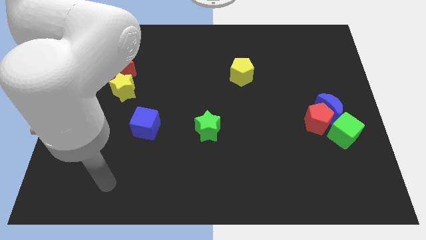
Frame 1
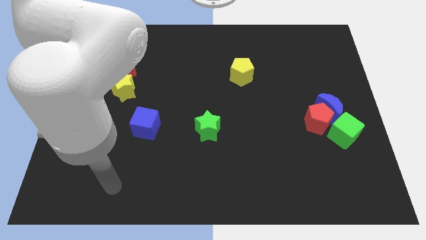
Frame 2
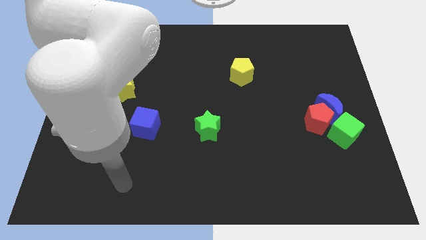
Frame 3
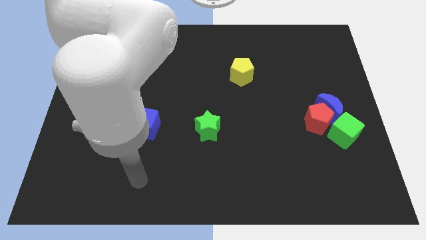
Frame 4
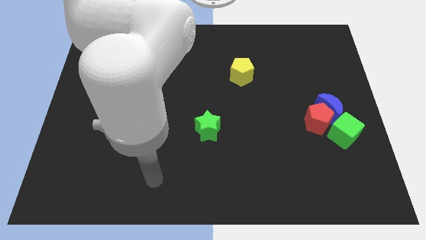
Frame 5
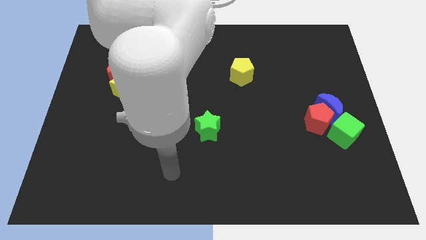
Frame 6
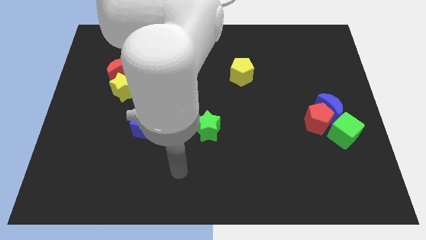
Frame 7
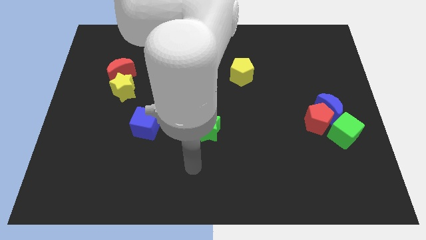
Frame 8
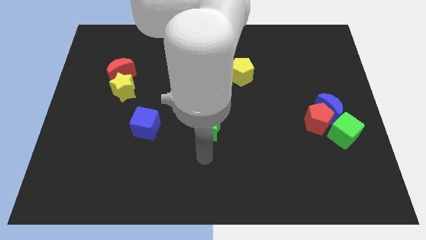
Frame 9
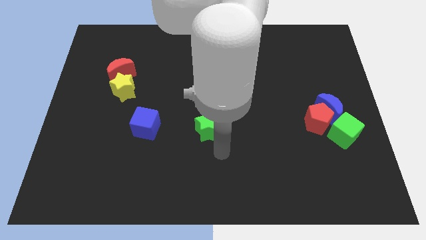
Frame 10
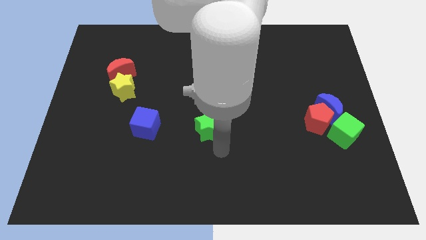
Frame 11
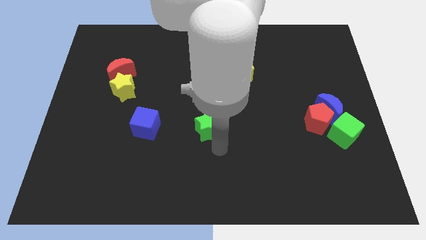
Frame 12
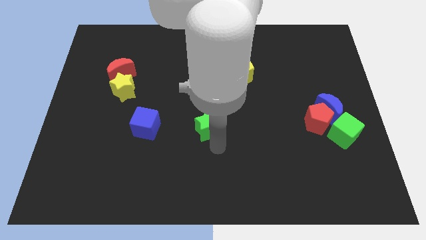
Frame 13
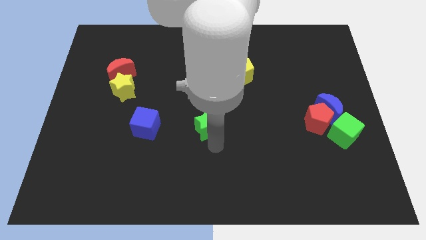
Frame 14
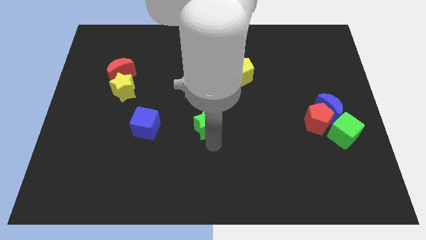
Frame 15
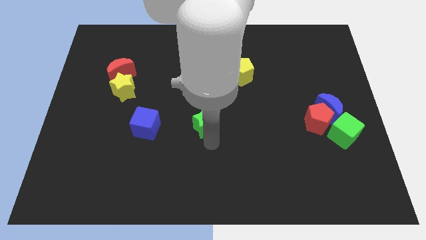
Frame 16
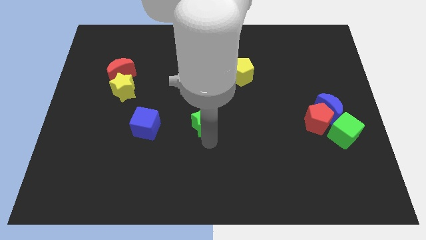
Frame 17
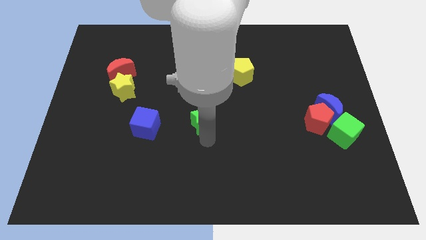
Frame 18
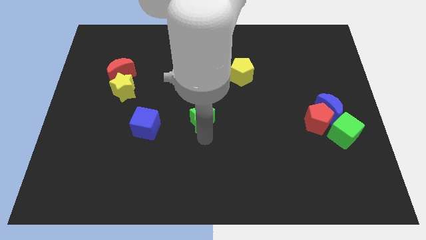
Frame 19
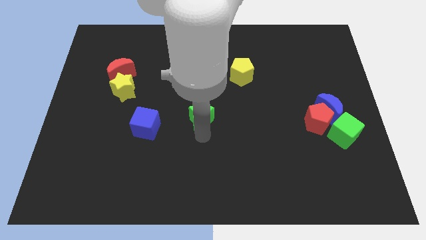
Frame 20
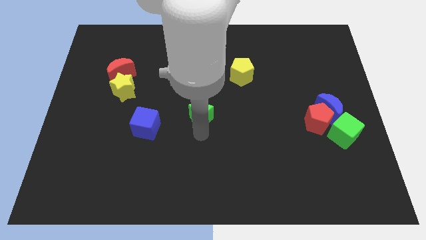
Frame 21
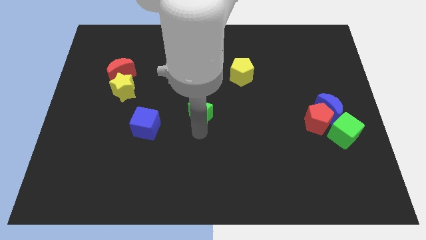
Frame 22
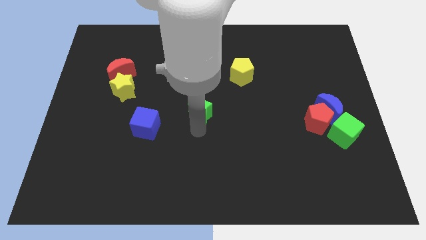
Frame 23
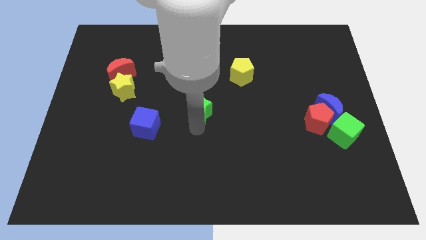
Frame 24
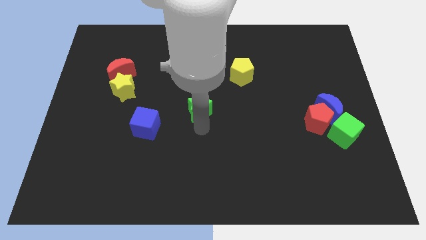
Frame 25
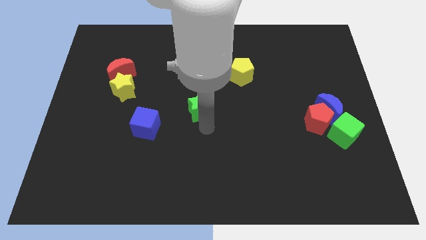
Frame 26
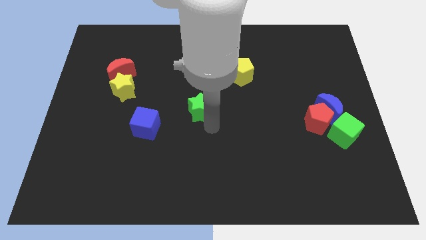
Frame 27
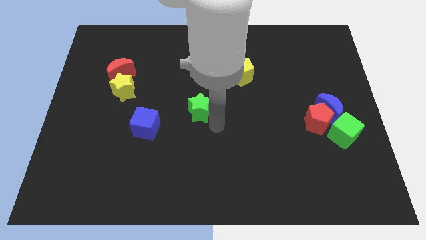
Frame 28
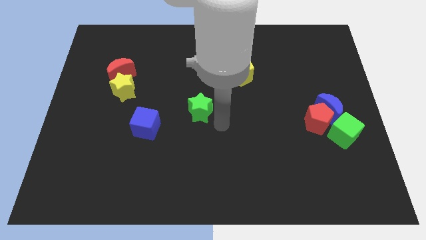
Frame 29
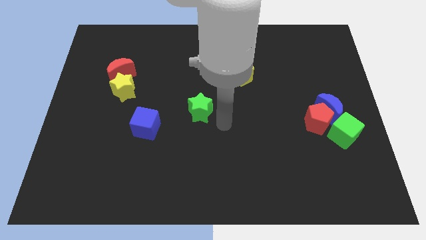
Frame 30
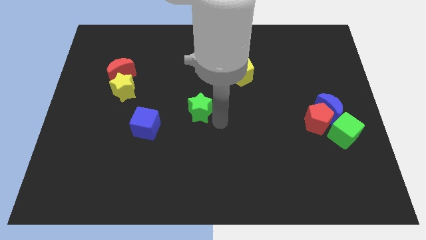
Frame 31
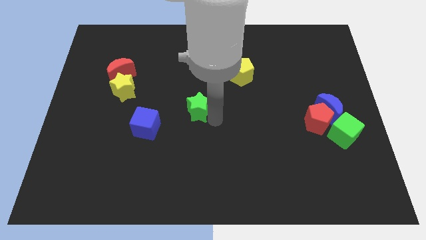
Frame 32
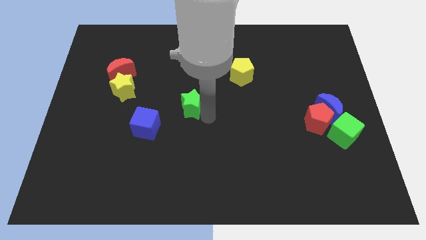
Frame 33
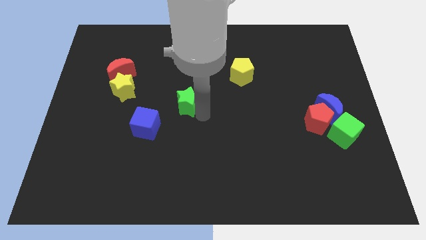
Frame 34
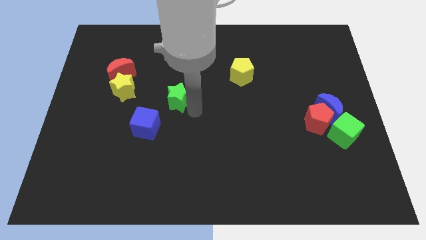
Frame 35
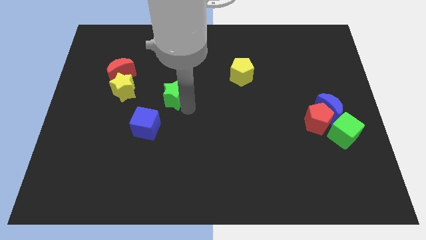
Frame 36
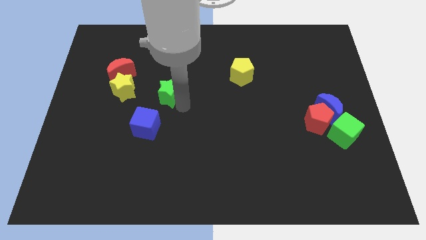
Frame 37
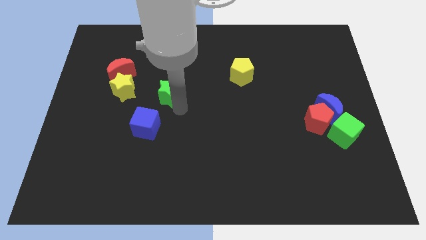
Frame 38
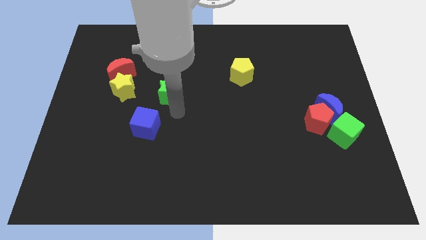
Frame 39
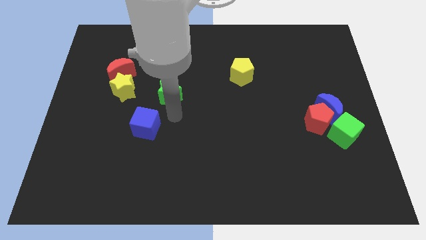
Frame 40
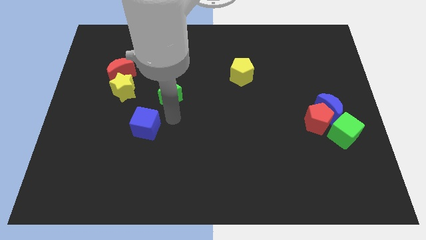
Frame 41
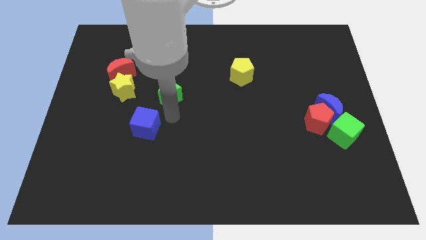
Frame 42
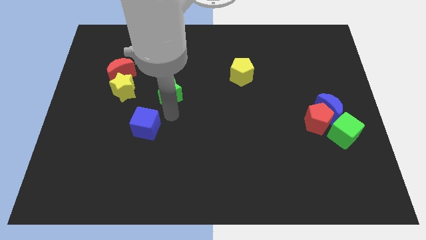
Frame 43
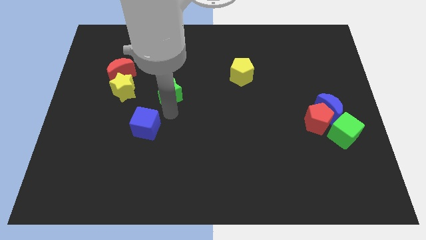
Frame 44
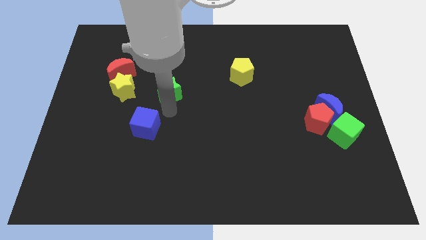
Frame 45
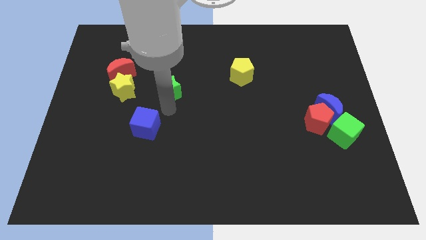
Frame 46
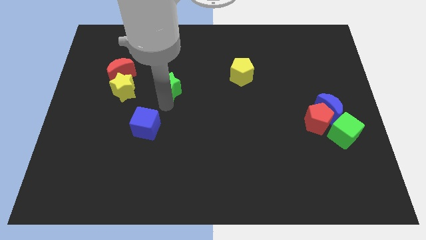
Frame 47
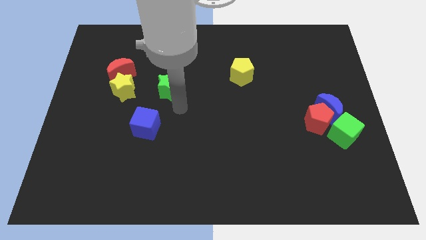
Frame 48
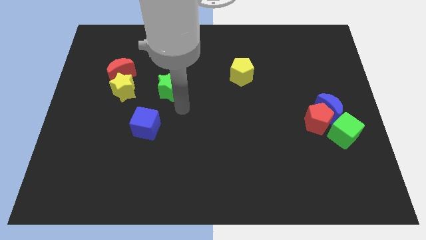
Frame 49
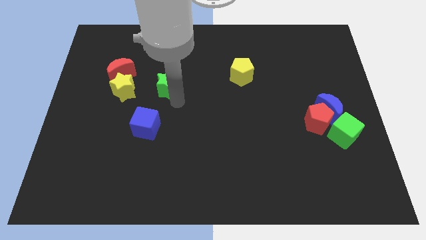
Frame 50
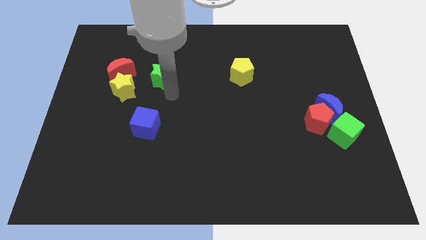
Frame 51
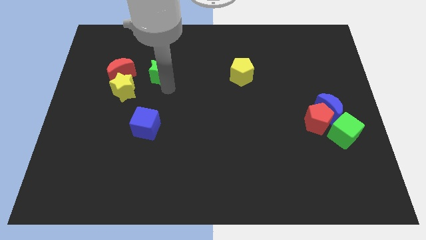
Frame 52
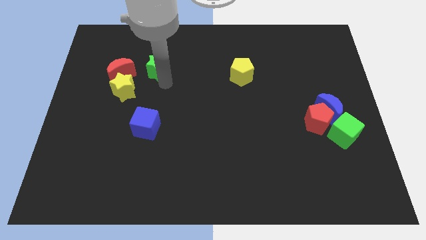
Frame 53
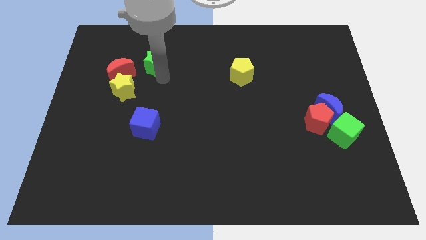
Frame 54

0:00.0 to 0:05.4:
push the green star to the top right side of the red moon

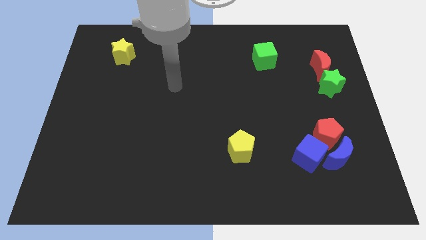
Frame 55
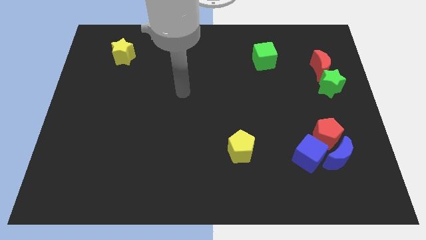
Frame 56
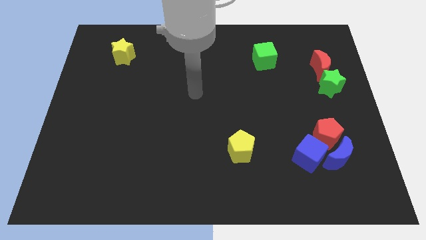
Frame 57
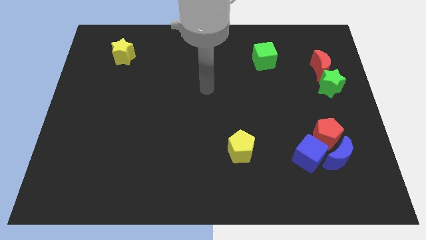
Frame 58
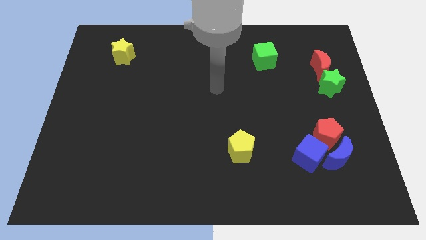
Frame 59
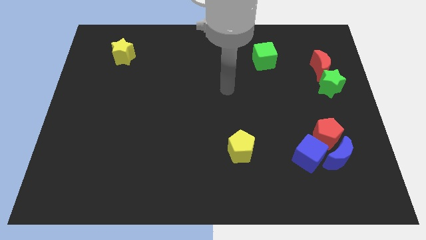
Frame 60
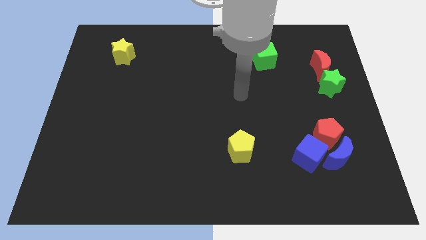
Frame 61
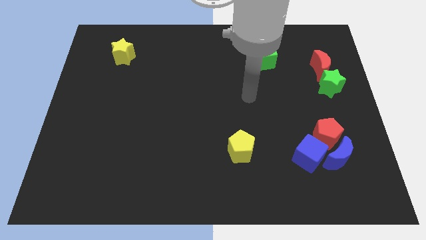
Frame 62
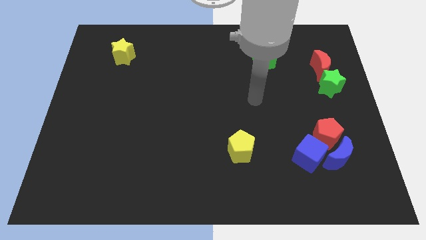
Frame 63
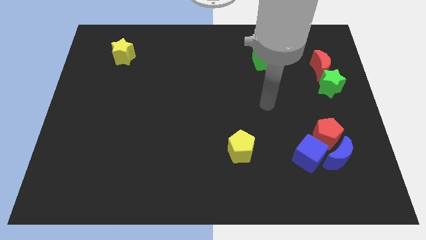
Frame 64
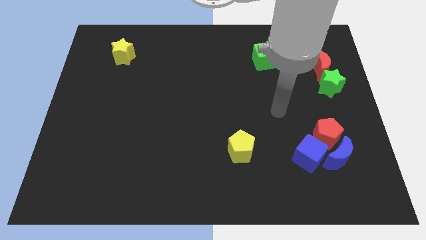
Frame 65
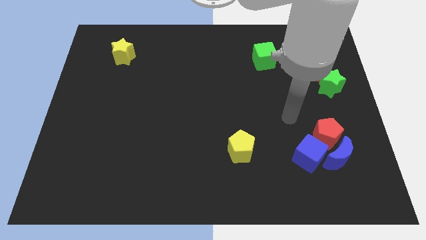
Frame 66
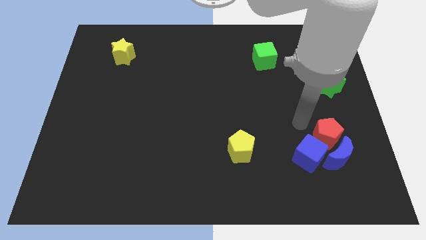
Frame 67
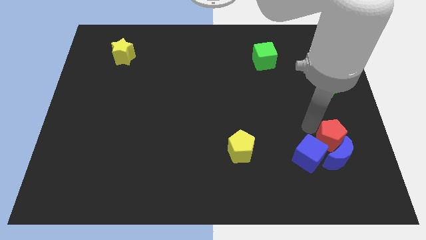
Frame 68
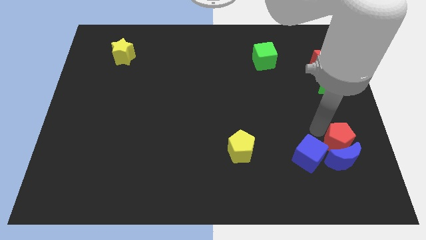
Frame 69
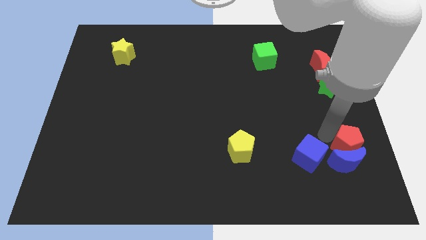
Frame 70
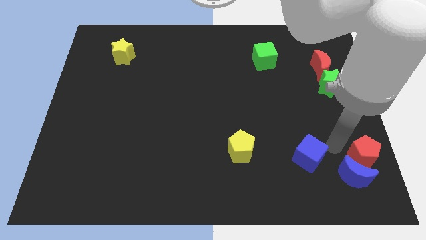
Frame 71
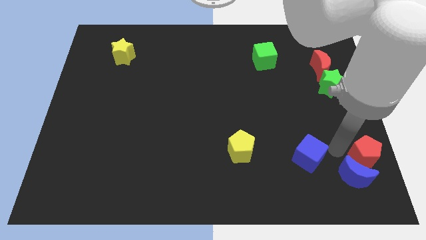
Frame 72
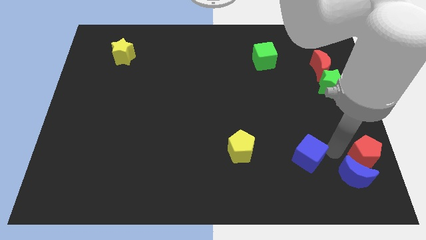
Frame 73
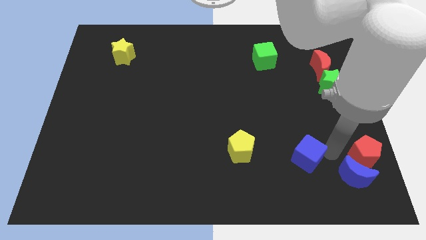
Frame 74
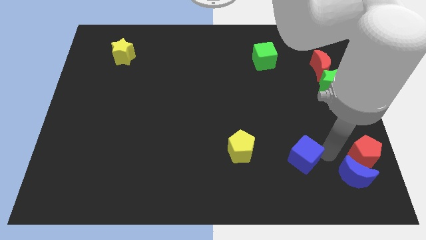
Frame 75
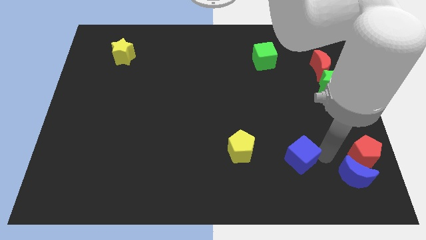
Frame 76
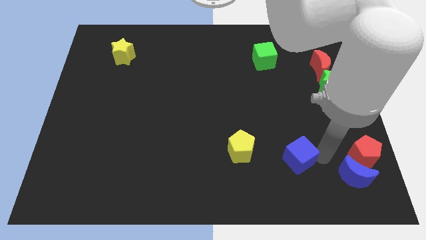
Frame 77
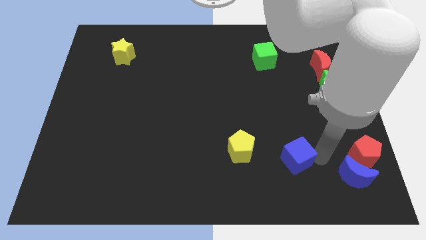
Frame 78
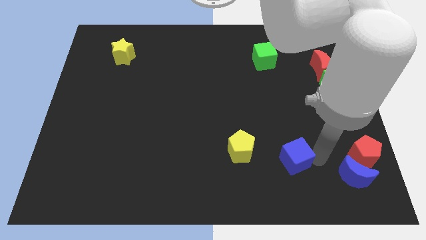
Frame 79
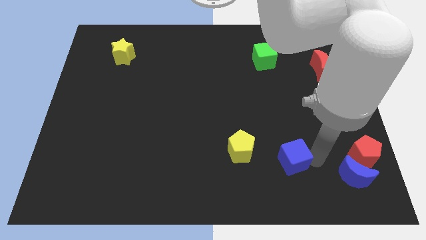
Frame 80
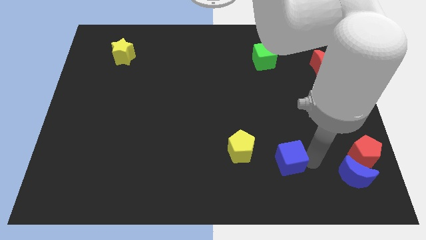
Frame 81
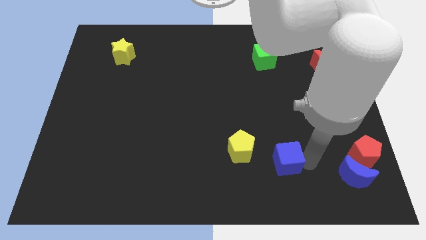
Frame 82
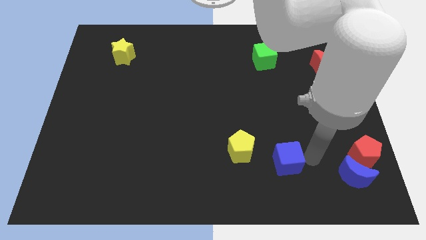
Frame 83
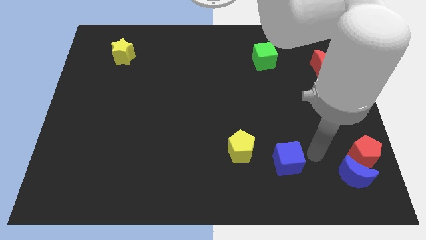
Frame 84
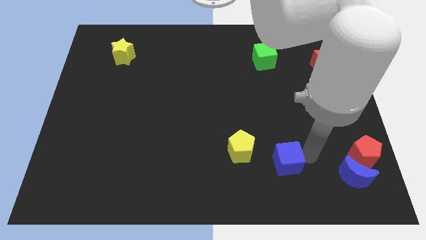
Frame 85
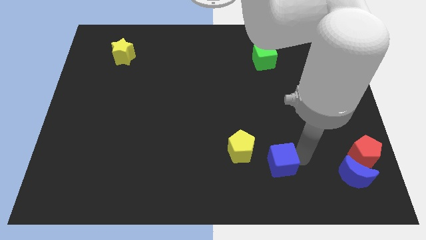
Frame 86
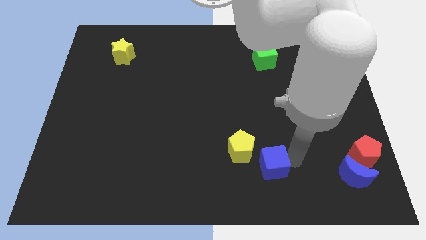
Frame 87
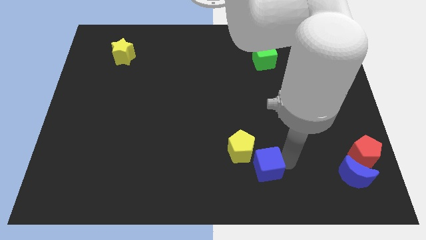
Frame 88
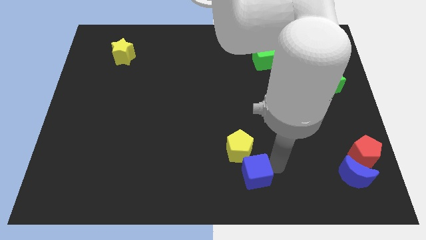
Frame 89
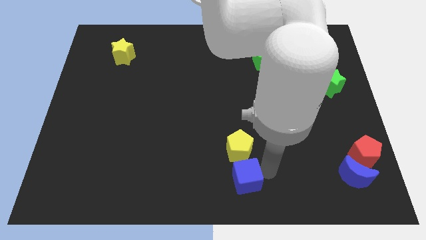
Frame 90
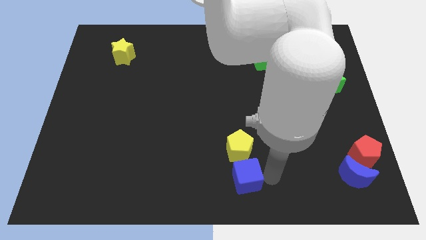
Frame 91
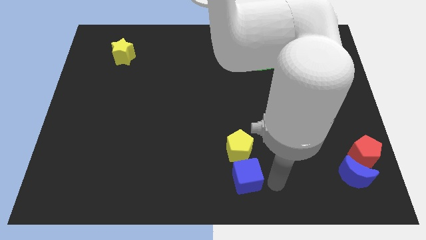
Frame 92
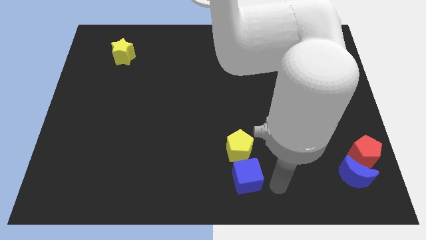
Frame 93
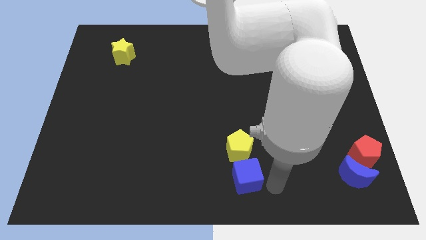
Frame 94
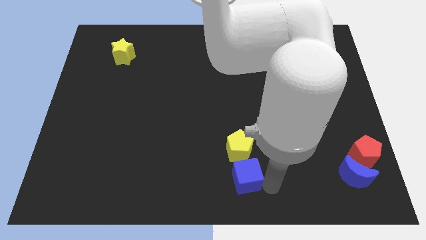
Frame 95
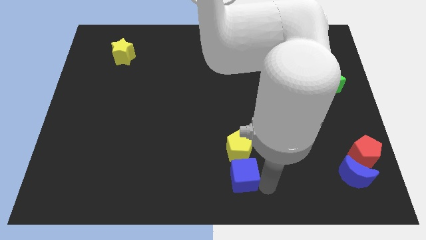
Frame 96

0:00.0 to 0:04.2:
put the blue cube diagonally down and to the left of the yellow pentagon
